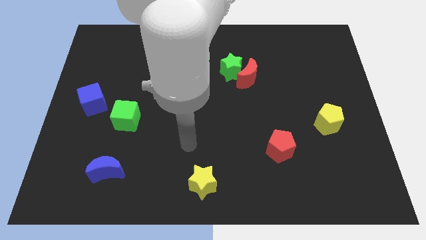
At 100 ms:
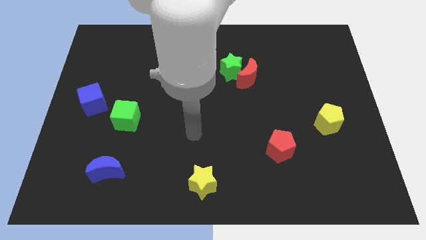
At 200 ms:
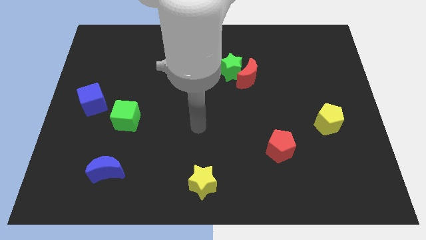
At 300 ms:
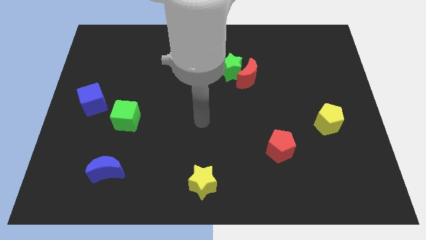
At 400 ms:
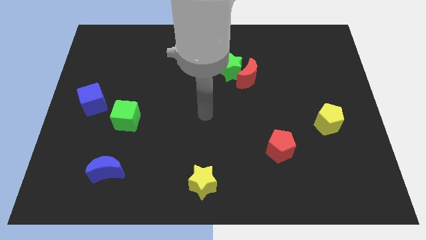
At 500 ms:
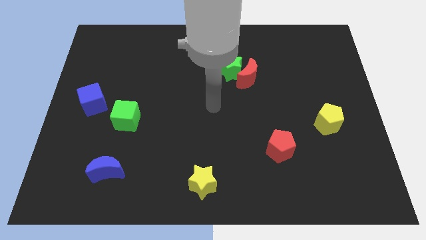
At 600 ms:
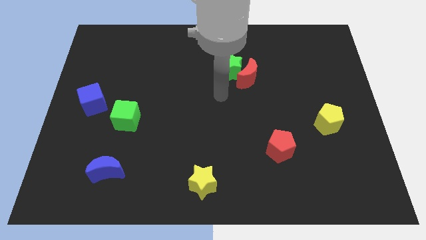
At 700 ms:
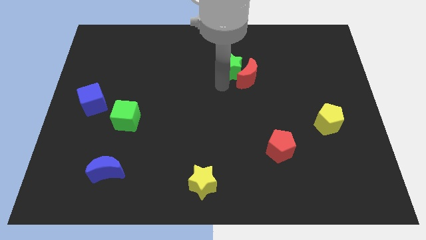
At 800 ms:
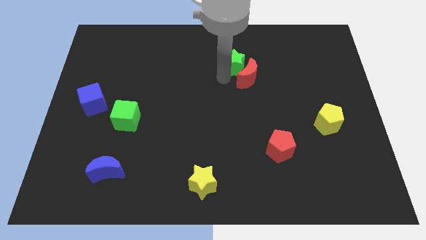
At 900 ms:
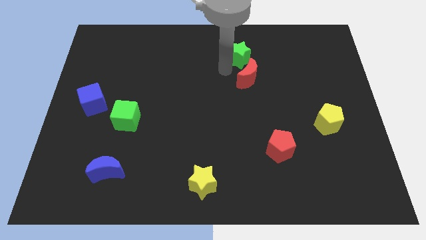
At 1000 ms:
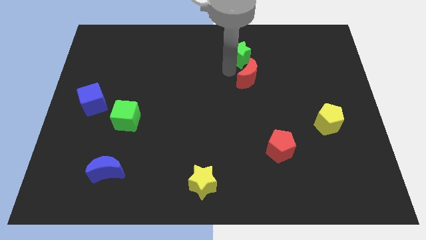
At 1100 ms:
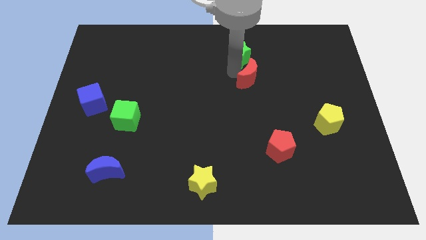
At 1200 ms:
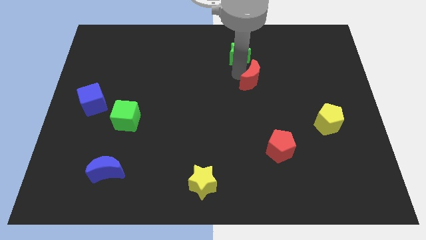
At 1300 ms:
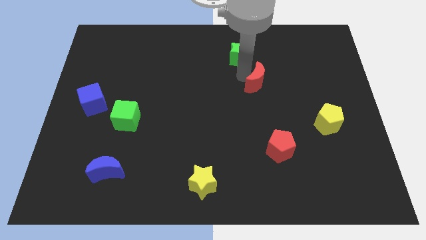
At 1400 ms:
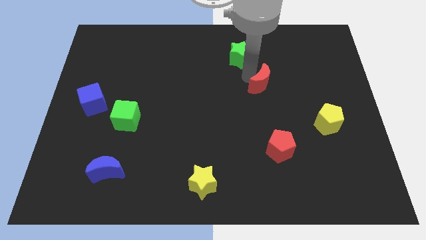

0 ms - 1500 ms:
move the red moon away from the green star

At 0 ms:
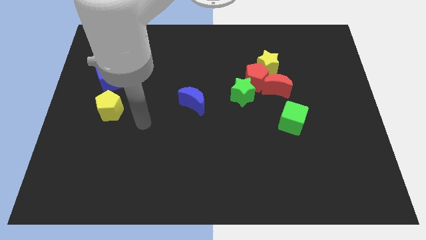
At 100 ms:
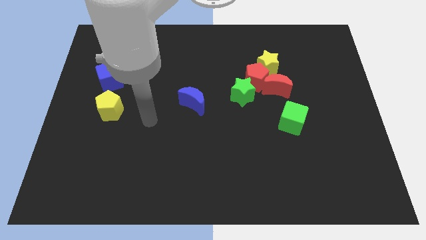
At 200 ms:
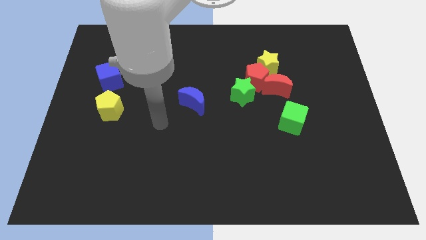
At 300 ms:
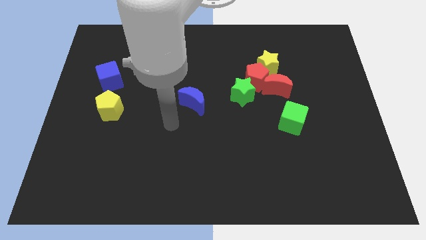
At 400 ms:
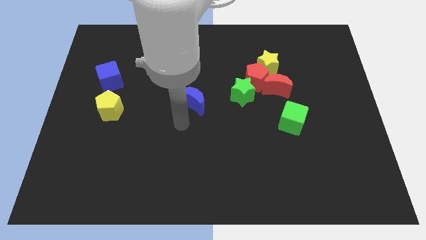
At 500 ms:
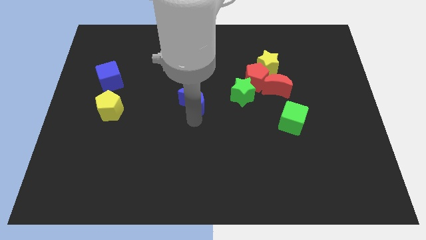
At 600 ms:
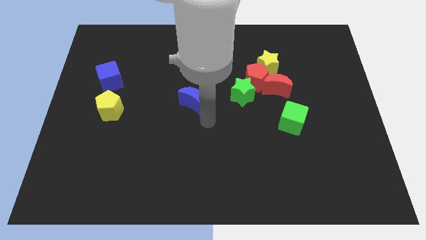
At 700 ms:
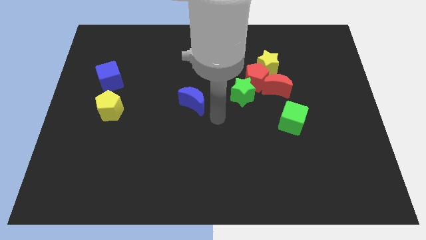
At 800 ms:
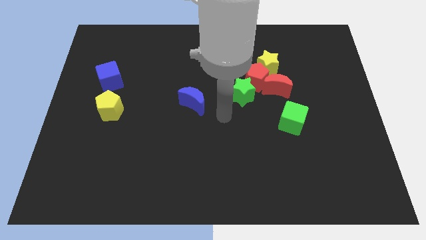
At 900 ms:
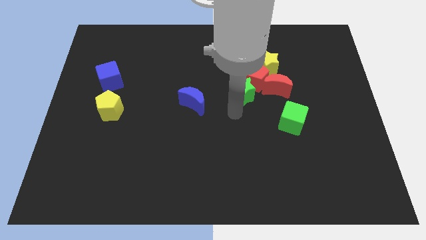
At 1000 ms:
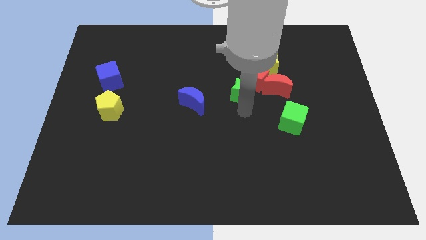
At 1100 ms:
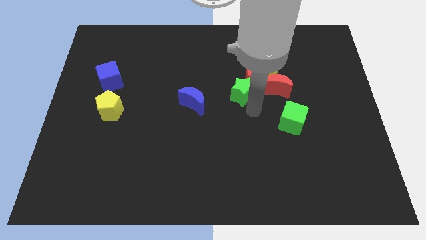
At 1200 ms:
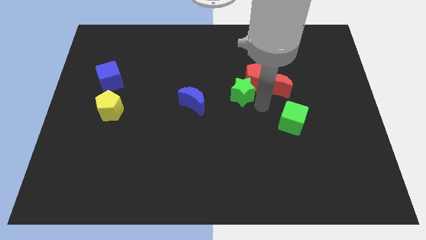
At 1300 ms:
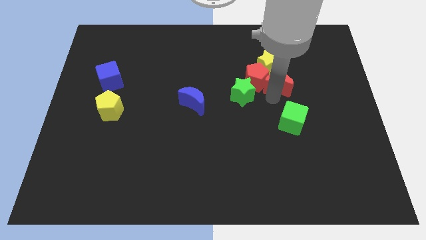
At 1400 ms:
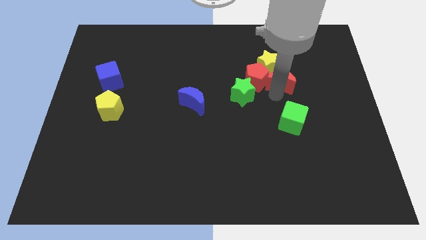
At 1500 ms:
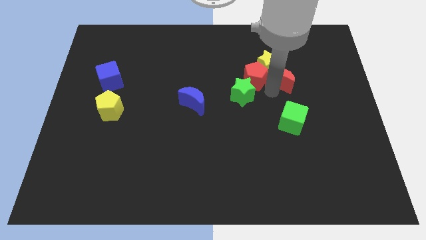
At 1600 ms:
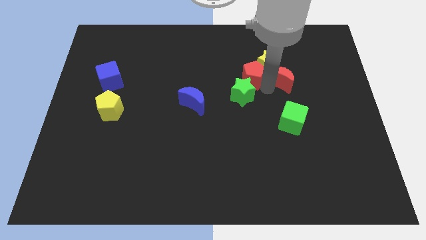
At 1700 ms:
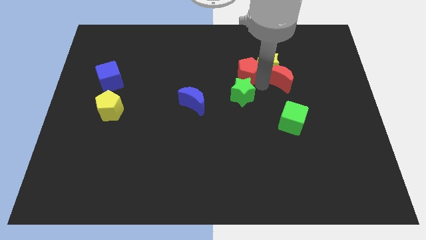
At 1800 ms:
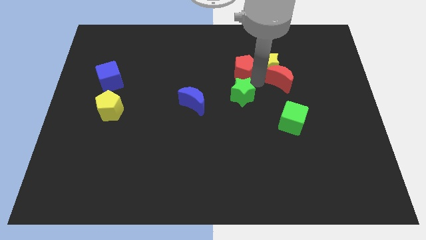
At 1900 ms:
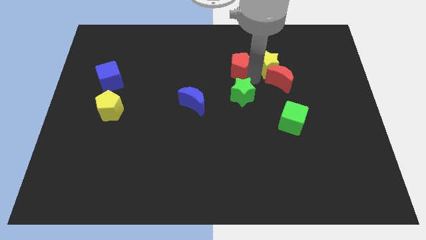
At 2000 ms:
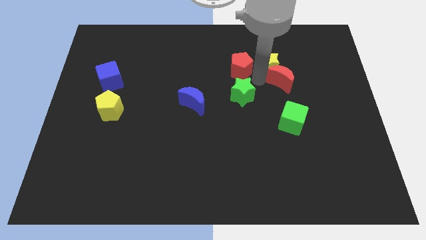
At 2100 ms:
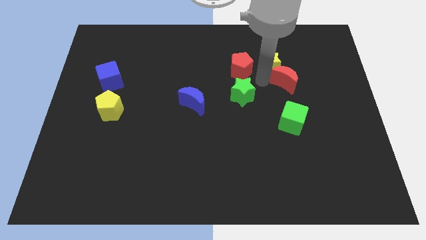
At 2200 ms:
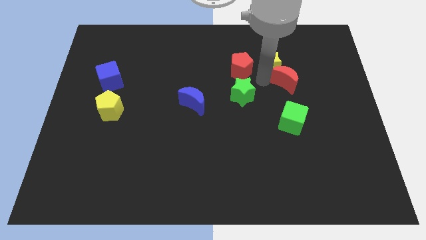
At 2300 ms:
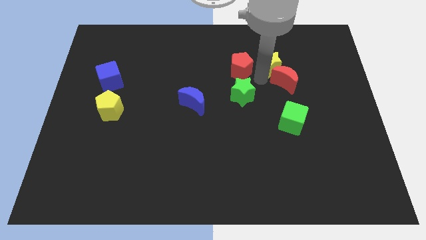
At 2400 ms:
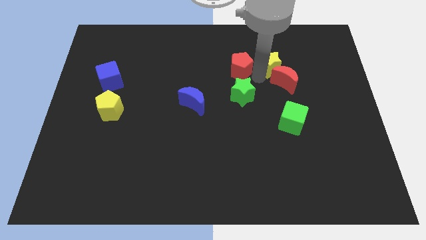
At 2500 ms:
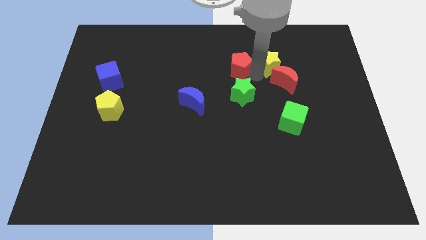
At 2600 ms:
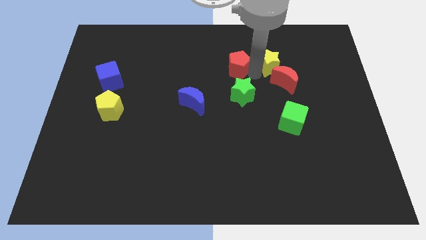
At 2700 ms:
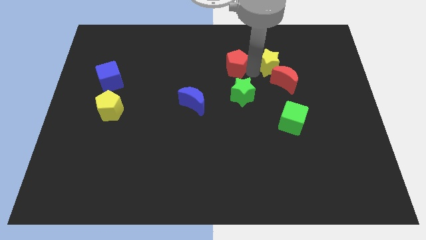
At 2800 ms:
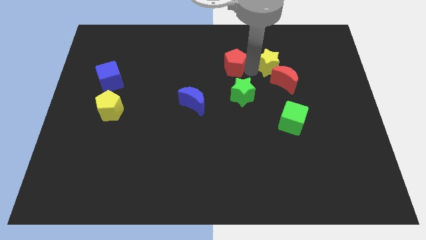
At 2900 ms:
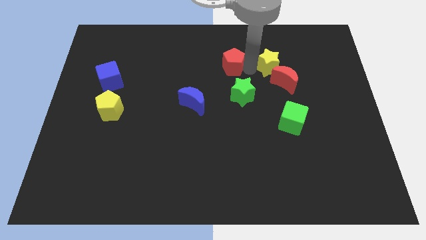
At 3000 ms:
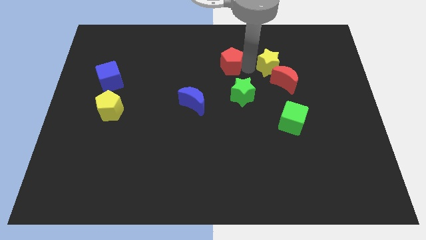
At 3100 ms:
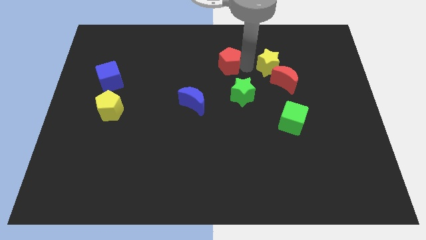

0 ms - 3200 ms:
separate the red pentagon from the yellow star, red moon, and green star

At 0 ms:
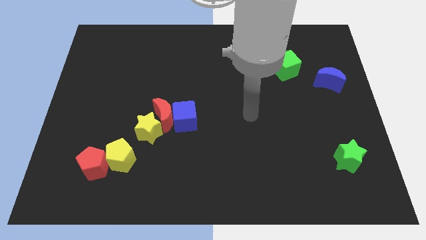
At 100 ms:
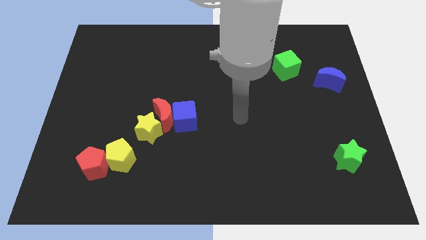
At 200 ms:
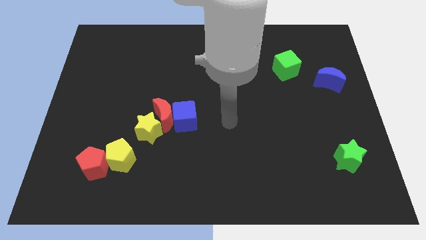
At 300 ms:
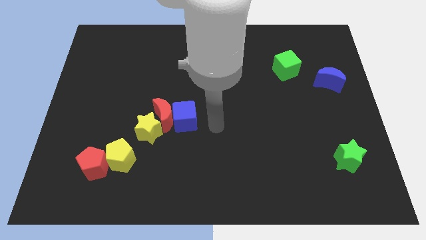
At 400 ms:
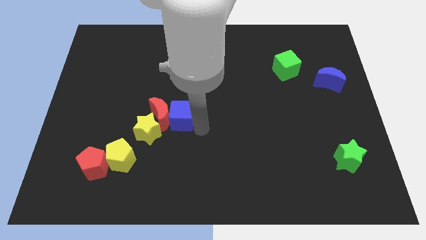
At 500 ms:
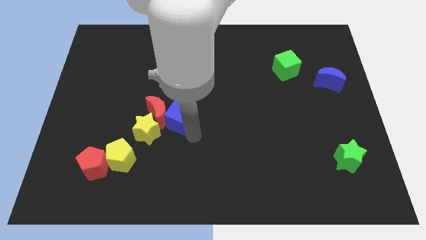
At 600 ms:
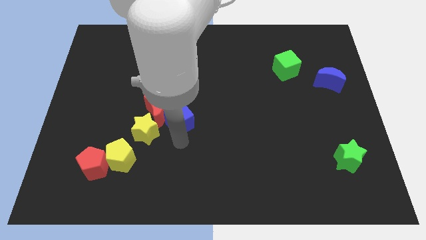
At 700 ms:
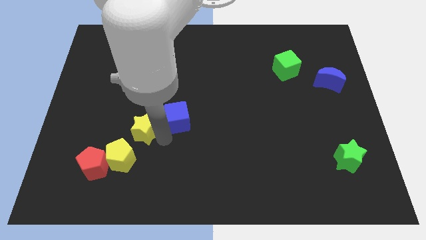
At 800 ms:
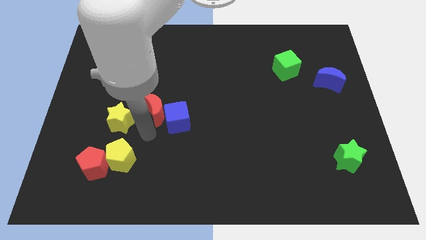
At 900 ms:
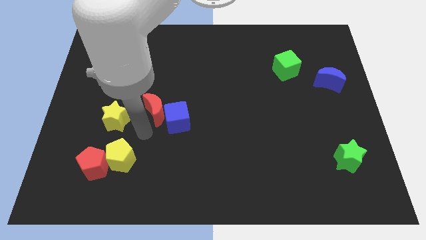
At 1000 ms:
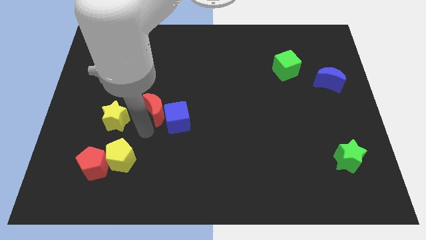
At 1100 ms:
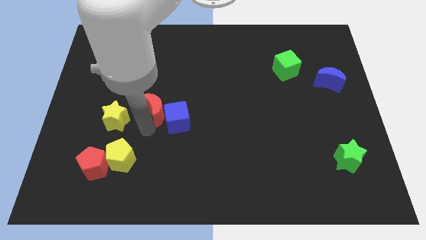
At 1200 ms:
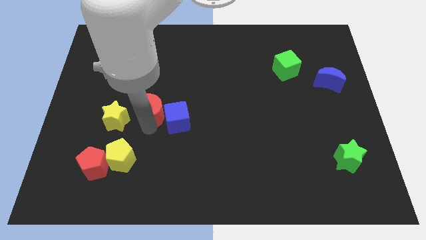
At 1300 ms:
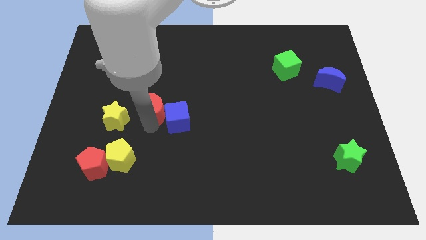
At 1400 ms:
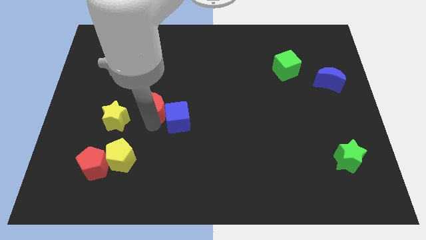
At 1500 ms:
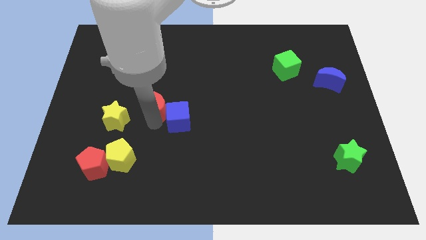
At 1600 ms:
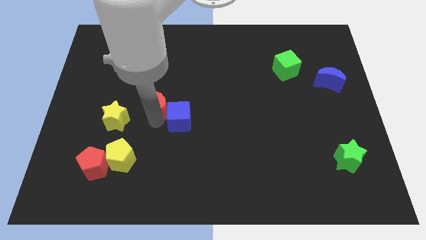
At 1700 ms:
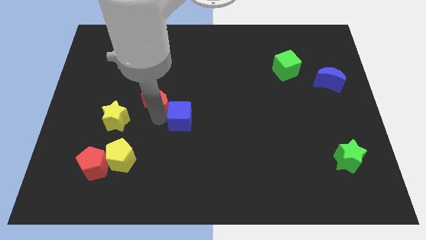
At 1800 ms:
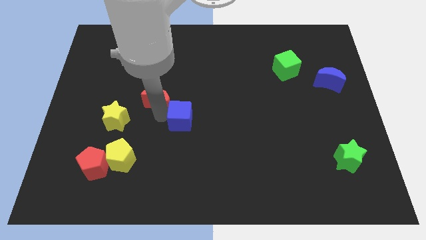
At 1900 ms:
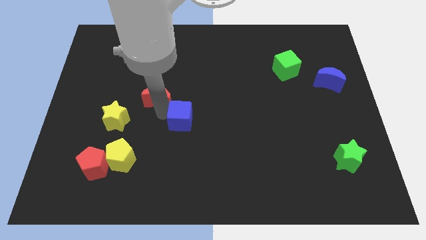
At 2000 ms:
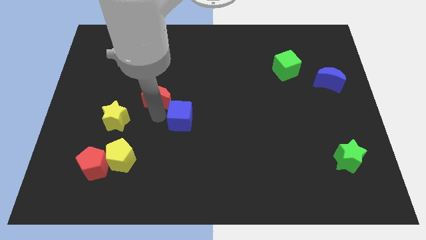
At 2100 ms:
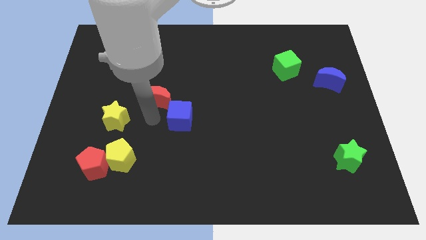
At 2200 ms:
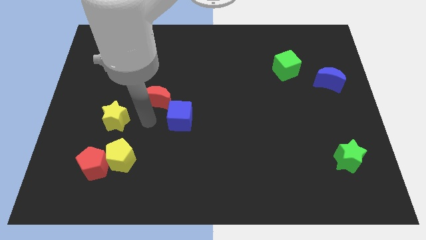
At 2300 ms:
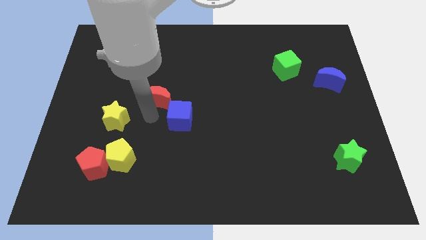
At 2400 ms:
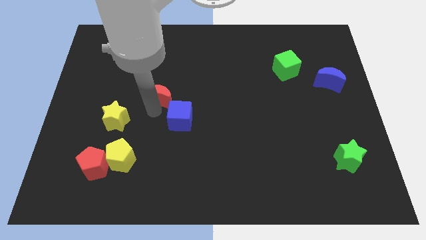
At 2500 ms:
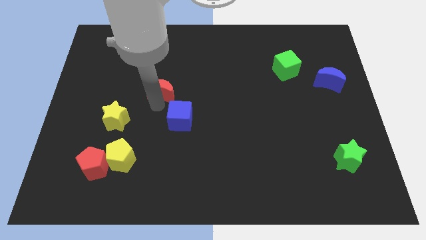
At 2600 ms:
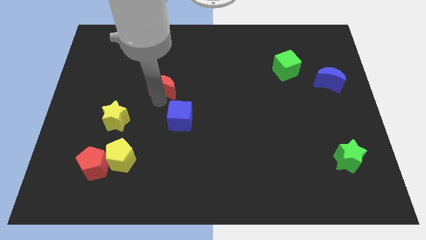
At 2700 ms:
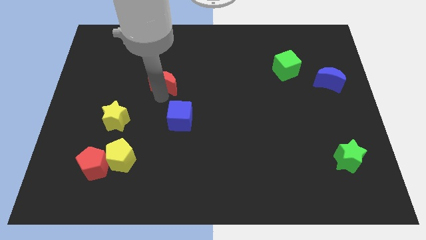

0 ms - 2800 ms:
pull the red moon apart from the blue cube and yellow star

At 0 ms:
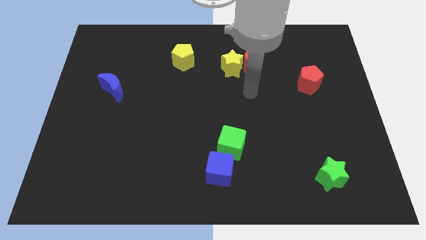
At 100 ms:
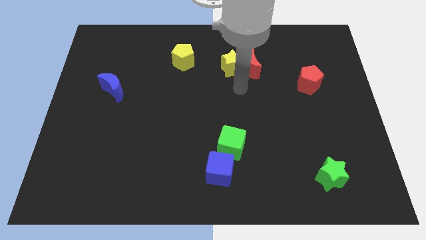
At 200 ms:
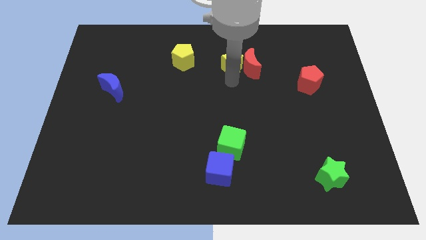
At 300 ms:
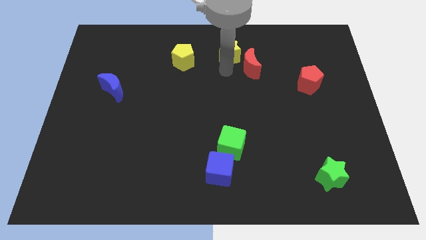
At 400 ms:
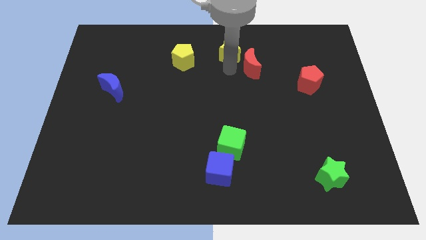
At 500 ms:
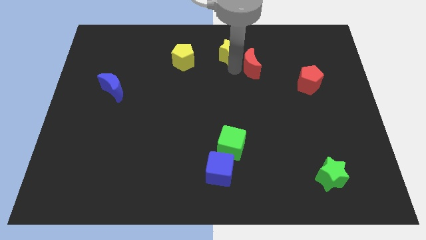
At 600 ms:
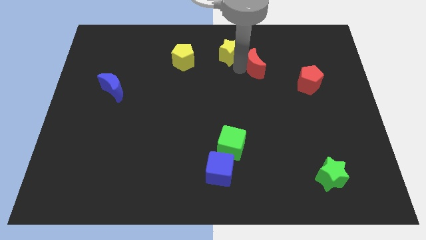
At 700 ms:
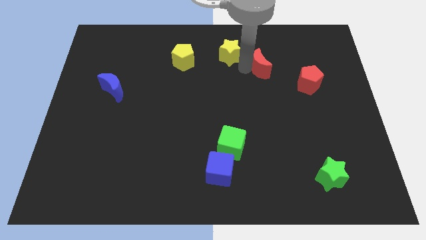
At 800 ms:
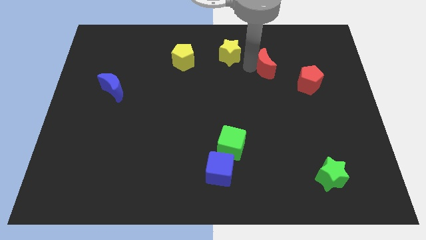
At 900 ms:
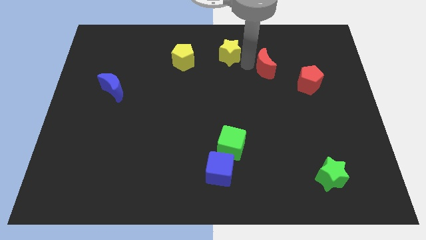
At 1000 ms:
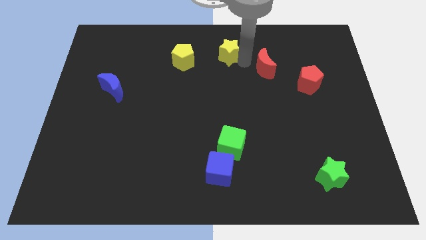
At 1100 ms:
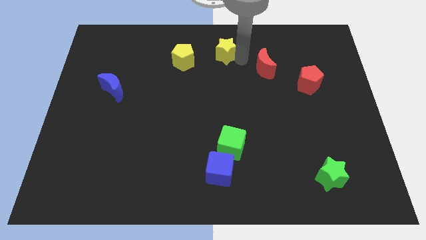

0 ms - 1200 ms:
pull the red moon apart from the yellow star

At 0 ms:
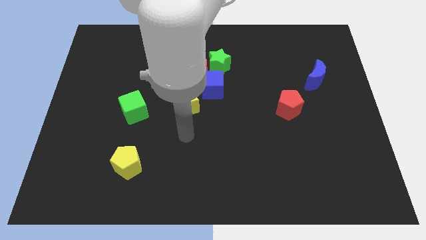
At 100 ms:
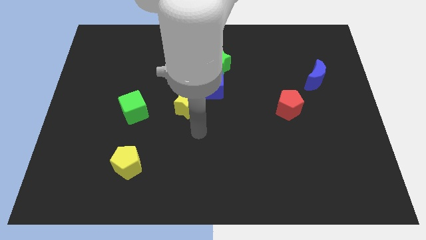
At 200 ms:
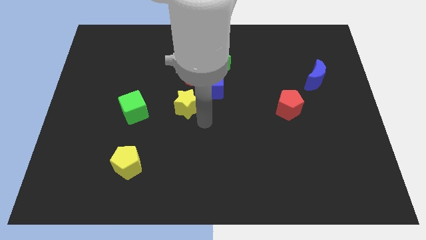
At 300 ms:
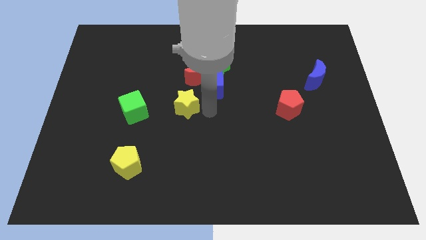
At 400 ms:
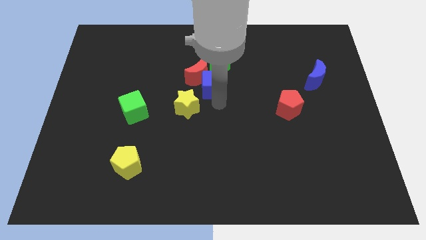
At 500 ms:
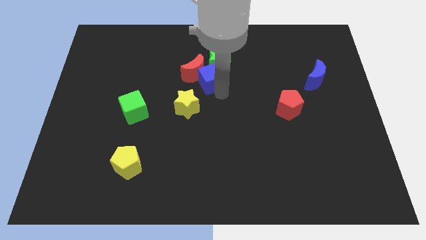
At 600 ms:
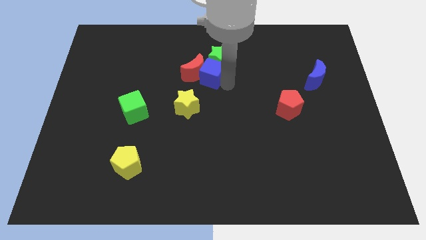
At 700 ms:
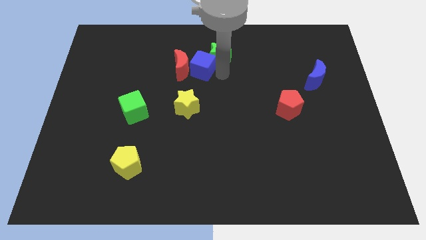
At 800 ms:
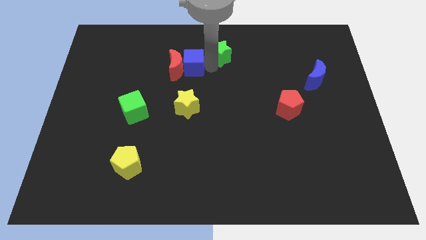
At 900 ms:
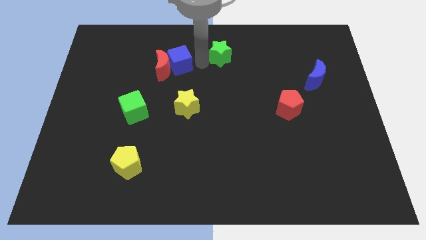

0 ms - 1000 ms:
move the red moon away from the blue cube and green star
